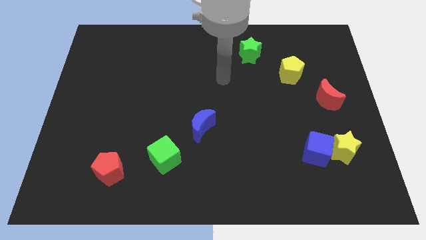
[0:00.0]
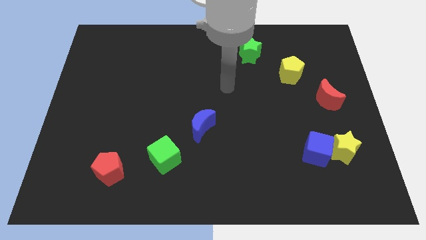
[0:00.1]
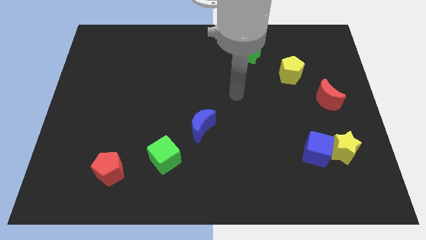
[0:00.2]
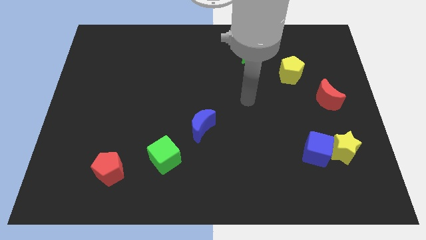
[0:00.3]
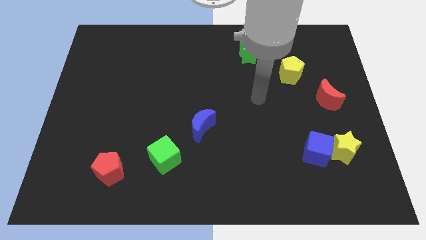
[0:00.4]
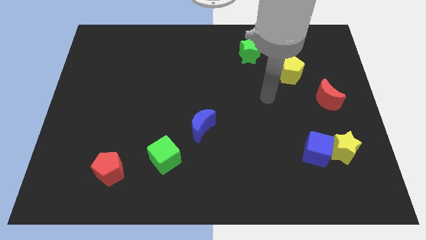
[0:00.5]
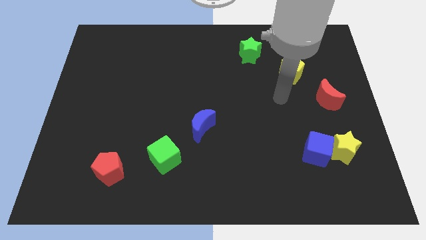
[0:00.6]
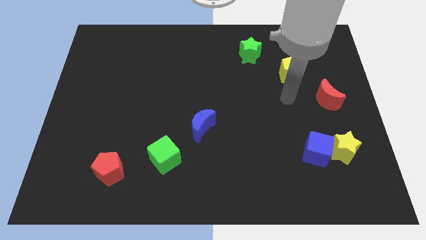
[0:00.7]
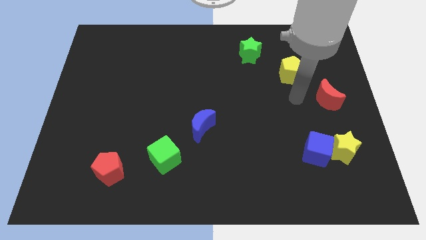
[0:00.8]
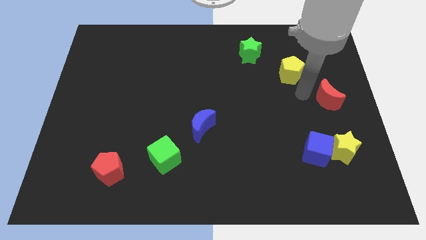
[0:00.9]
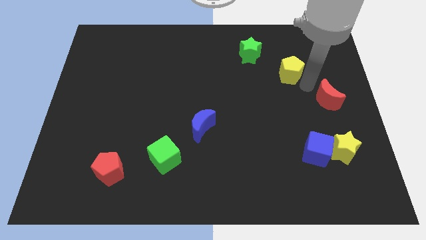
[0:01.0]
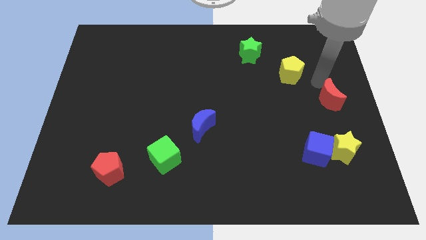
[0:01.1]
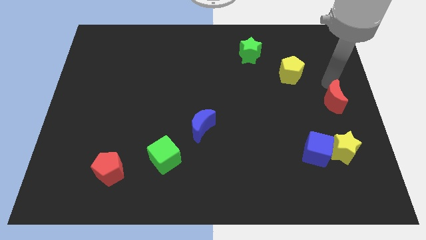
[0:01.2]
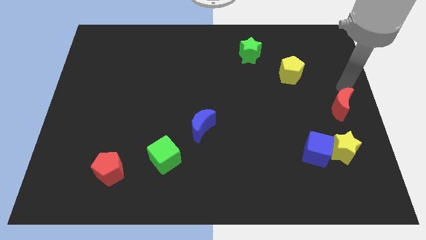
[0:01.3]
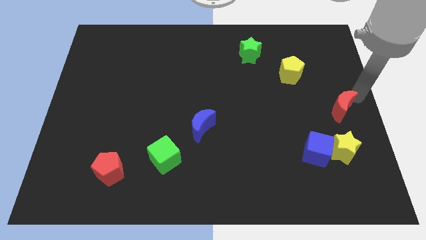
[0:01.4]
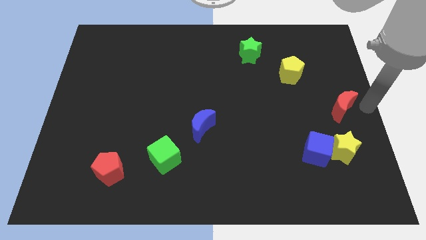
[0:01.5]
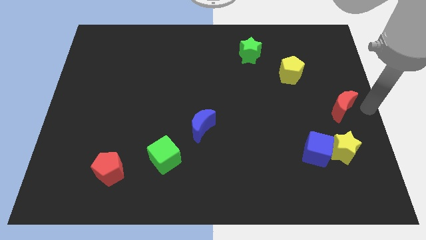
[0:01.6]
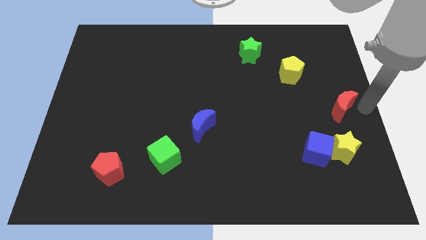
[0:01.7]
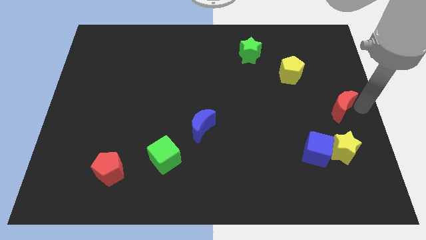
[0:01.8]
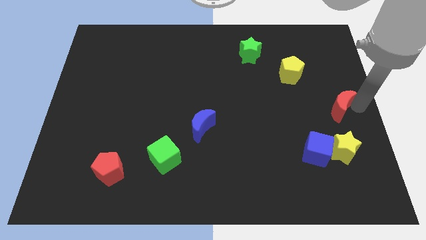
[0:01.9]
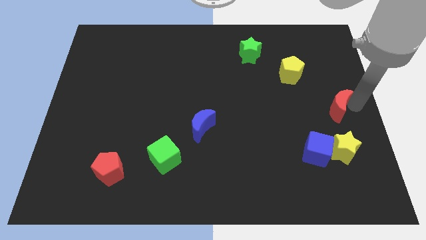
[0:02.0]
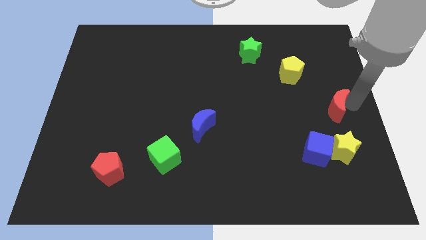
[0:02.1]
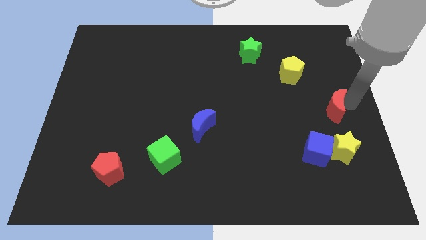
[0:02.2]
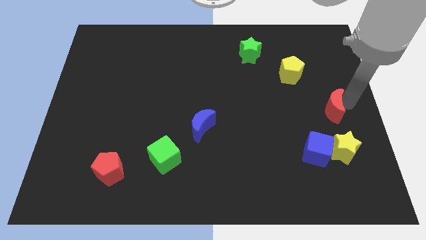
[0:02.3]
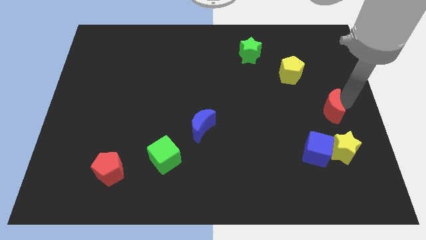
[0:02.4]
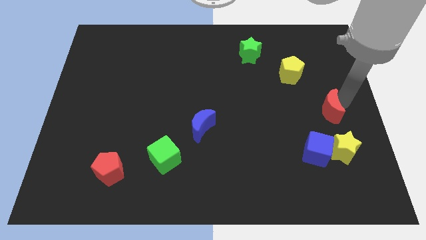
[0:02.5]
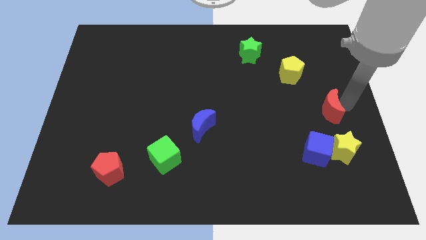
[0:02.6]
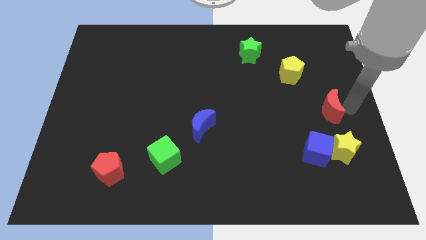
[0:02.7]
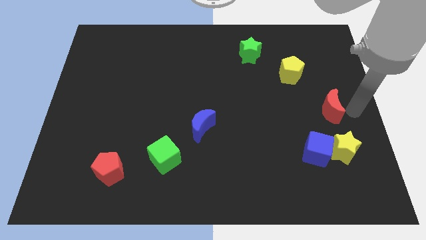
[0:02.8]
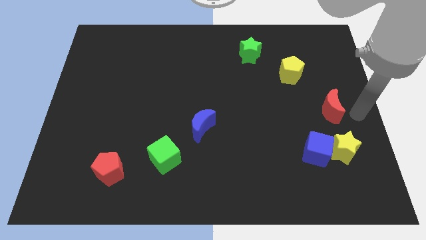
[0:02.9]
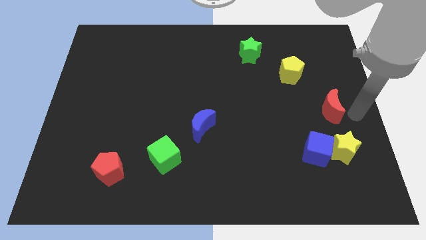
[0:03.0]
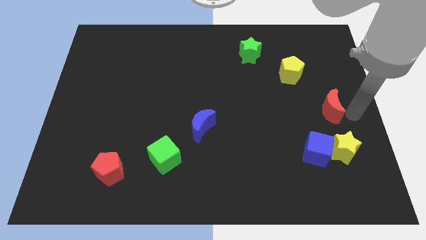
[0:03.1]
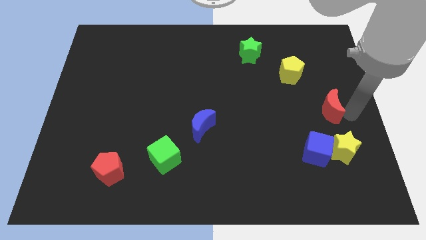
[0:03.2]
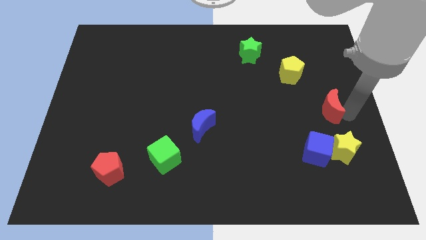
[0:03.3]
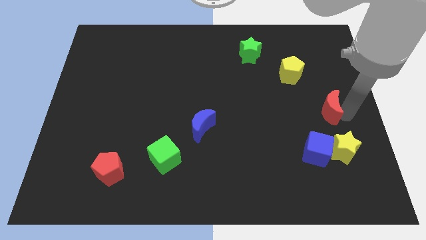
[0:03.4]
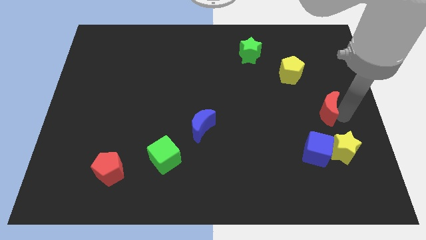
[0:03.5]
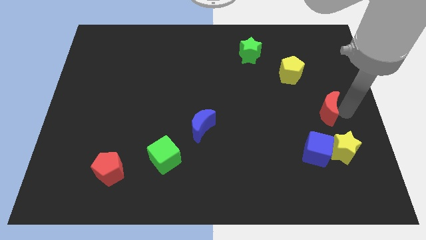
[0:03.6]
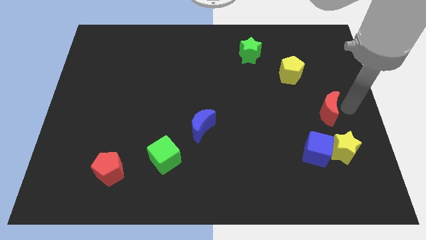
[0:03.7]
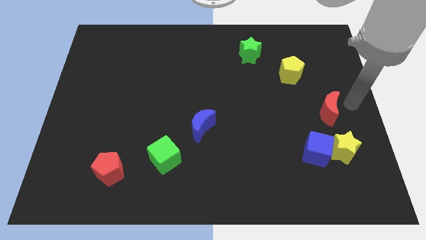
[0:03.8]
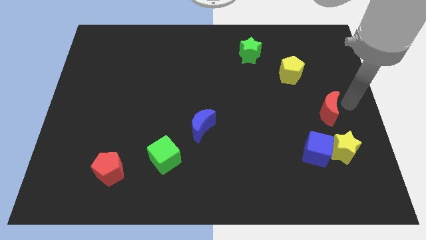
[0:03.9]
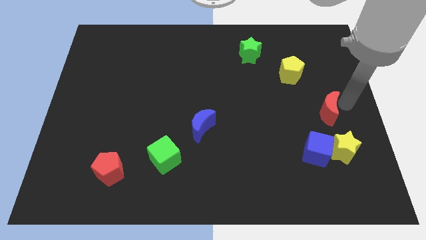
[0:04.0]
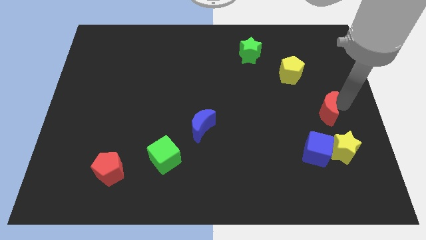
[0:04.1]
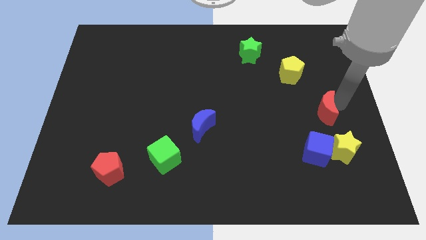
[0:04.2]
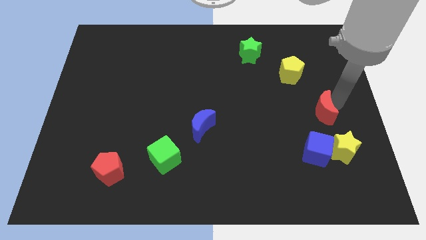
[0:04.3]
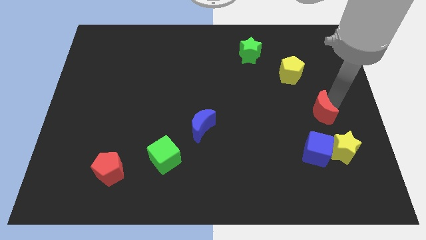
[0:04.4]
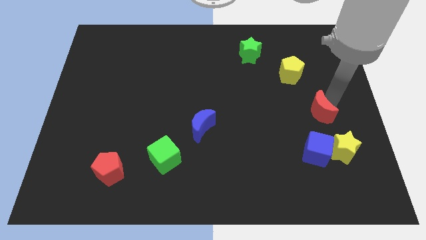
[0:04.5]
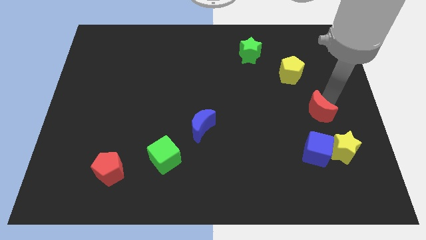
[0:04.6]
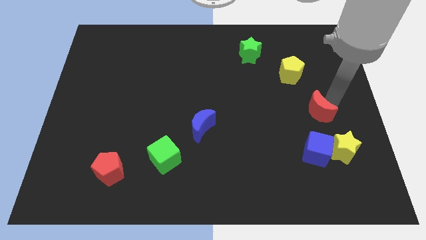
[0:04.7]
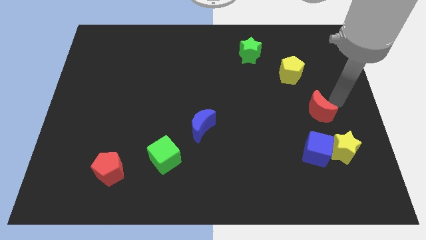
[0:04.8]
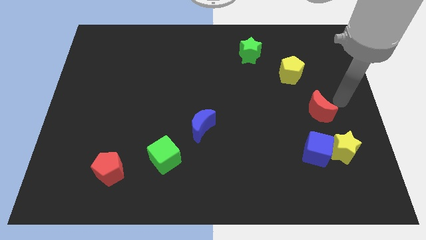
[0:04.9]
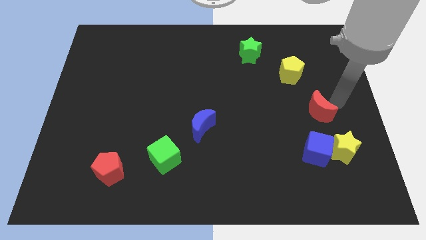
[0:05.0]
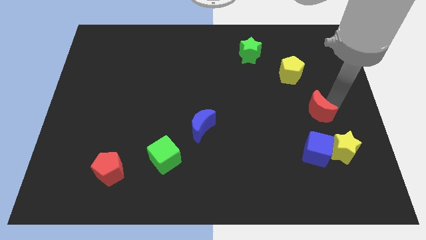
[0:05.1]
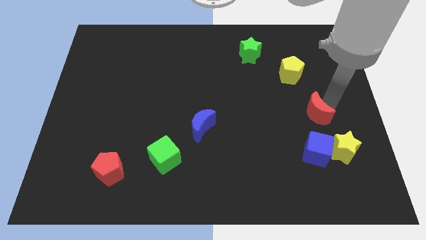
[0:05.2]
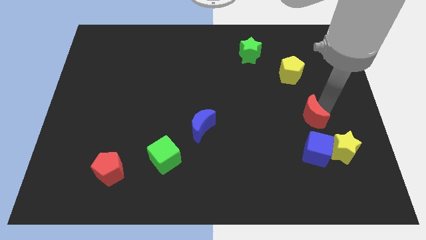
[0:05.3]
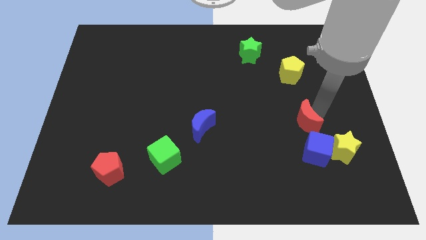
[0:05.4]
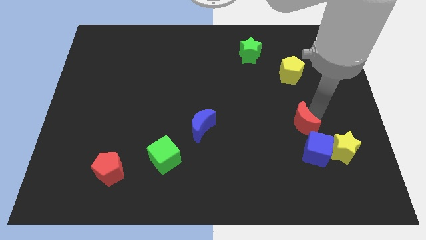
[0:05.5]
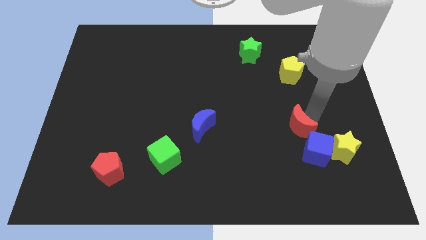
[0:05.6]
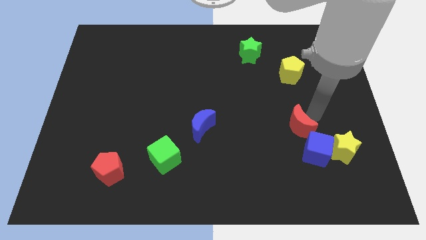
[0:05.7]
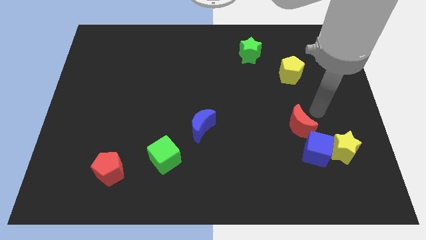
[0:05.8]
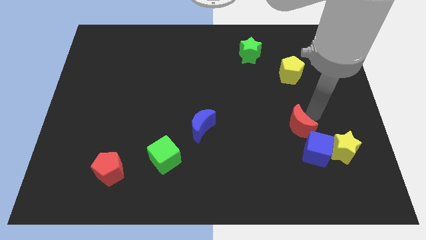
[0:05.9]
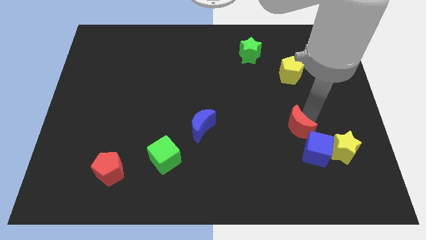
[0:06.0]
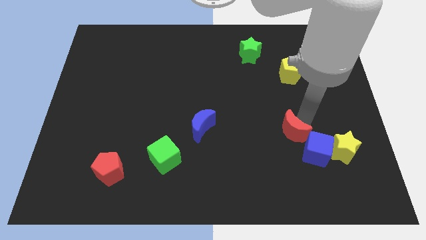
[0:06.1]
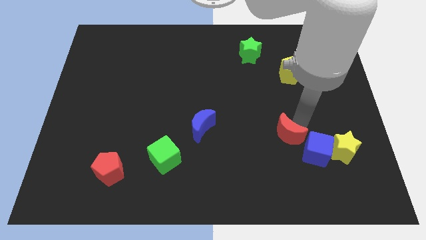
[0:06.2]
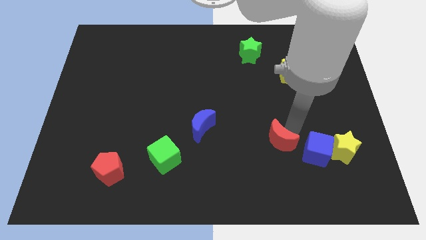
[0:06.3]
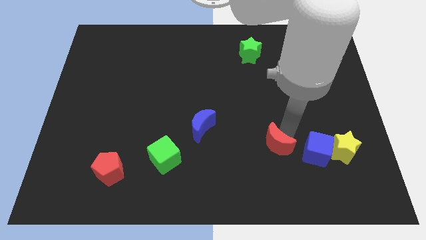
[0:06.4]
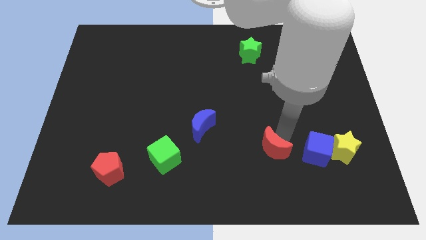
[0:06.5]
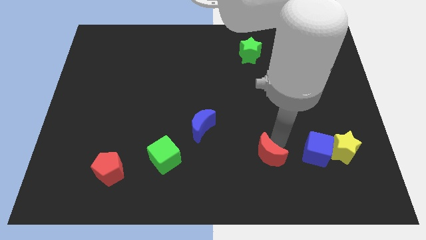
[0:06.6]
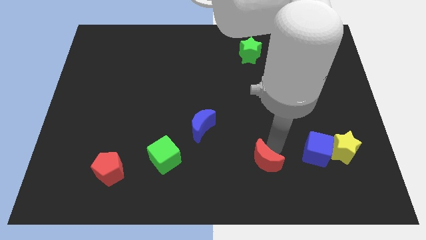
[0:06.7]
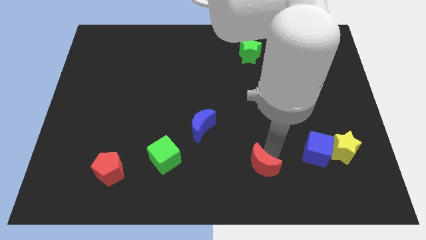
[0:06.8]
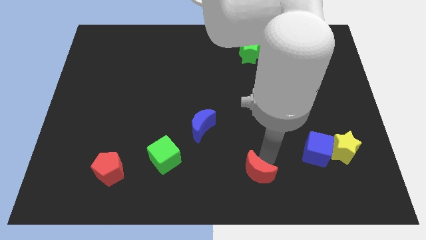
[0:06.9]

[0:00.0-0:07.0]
put the red moon to the bottom side
